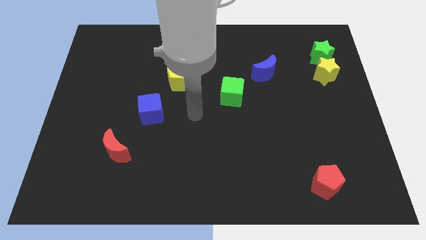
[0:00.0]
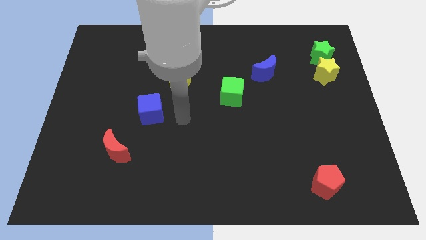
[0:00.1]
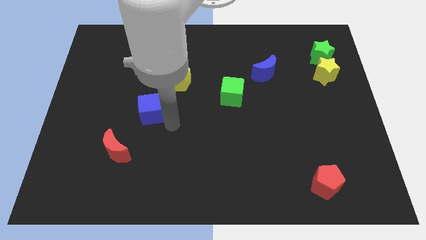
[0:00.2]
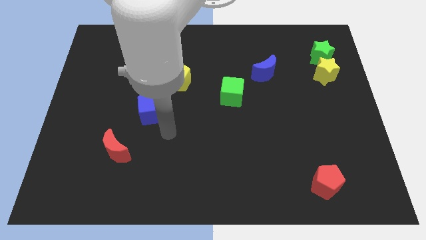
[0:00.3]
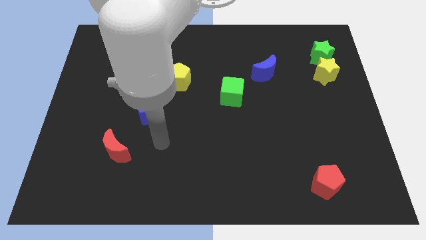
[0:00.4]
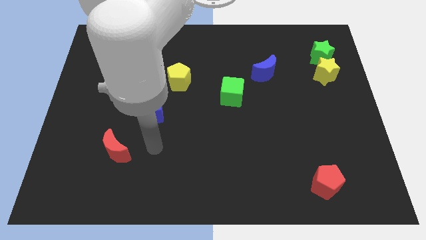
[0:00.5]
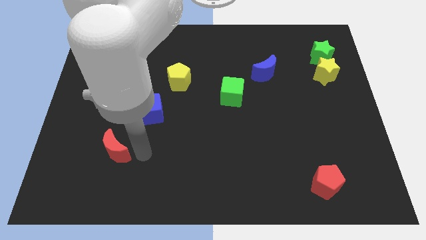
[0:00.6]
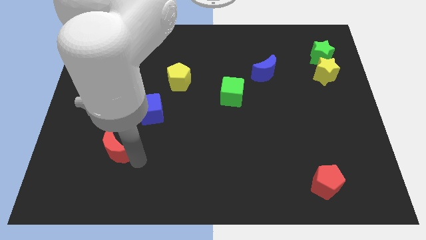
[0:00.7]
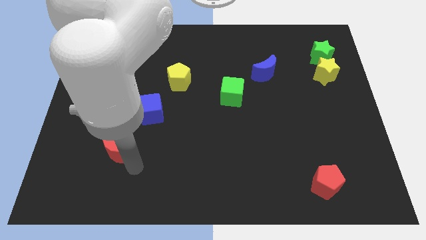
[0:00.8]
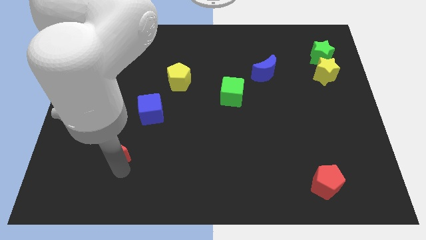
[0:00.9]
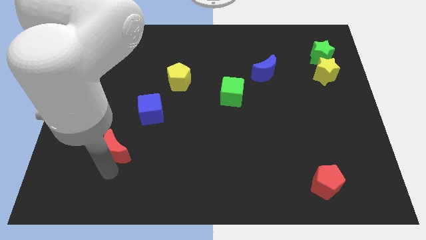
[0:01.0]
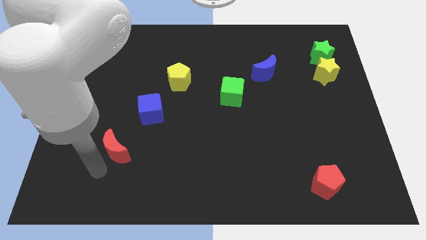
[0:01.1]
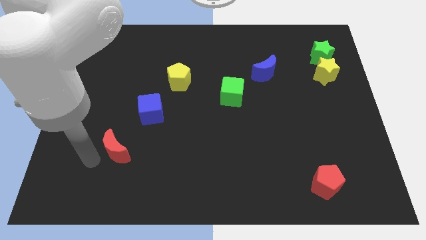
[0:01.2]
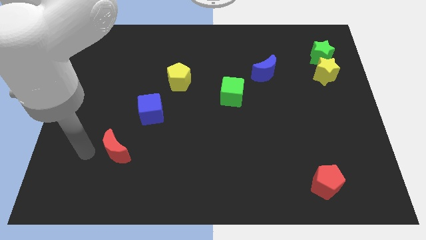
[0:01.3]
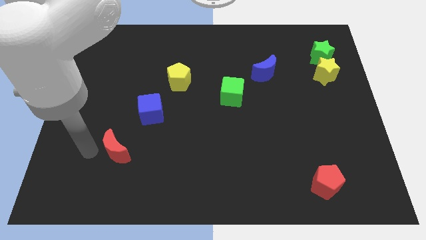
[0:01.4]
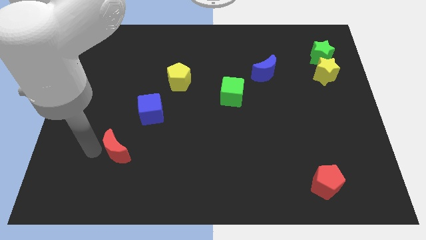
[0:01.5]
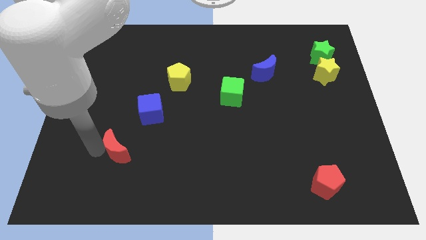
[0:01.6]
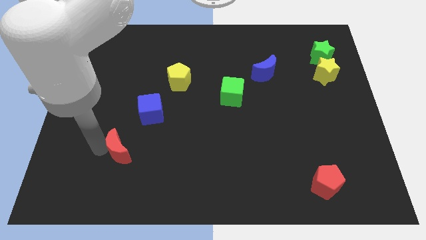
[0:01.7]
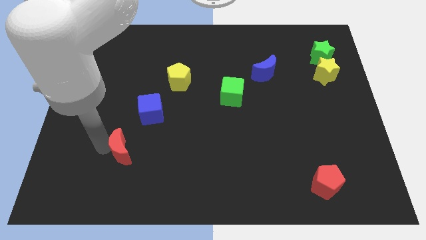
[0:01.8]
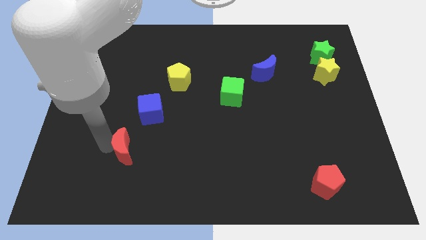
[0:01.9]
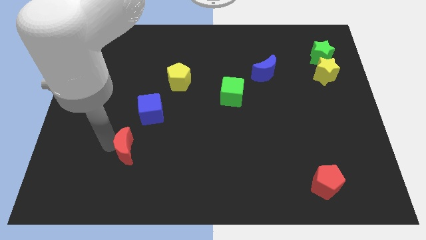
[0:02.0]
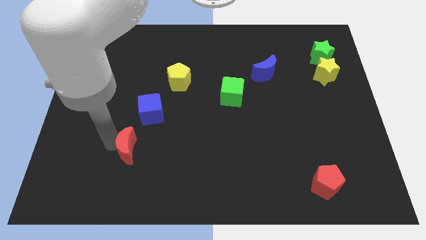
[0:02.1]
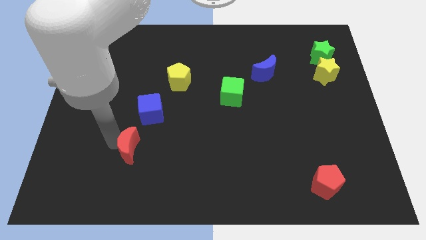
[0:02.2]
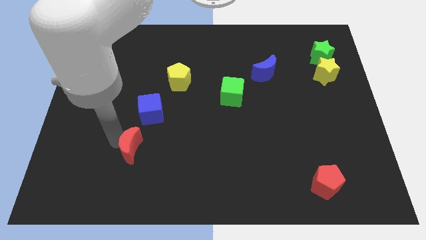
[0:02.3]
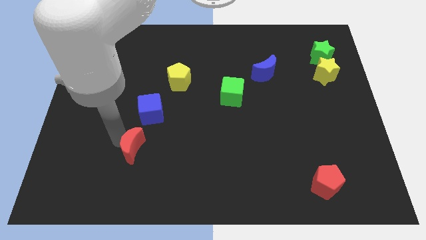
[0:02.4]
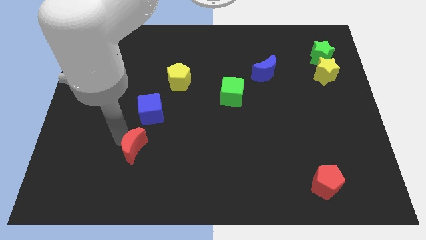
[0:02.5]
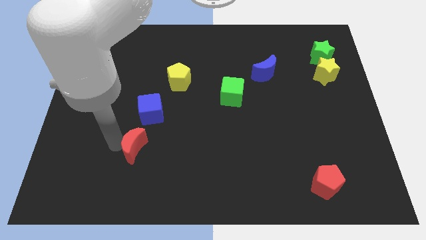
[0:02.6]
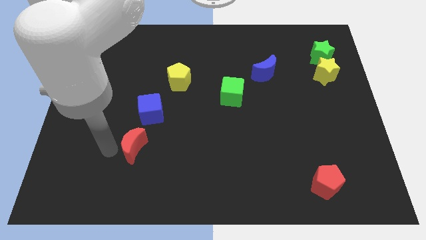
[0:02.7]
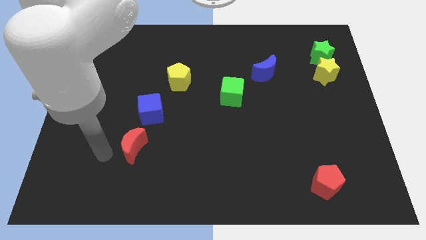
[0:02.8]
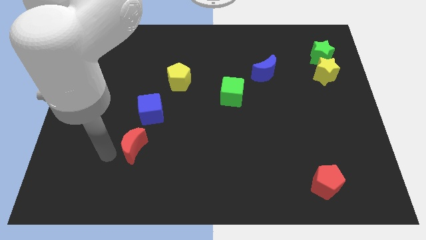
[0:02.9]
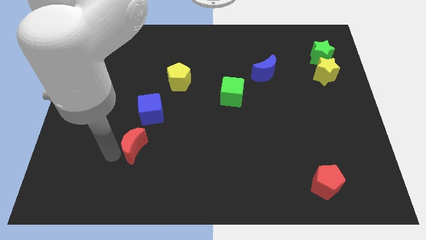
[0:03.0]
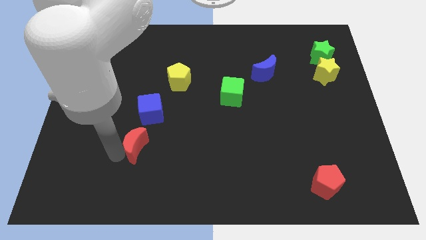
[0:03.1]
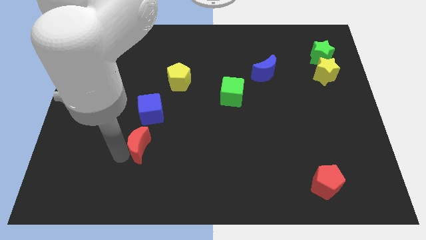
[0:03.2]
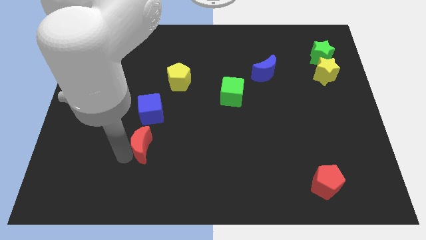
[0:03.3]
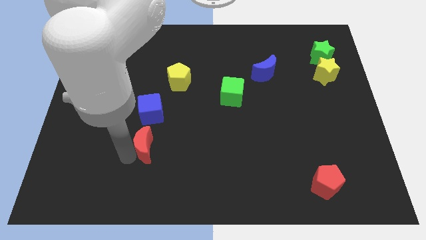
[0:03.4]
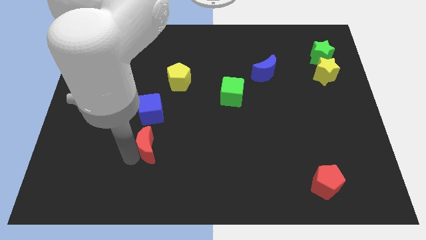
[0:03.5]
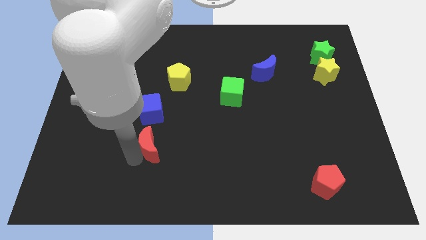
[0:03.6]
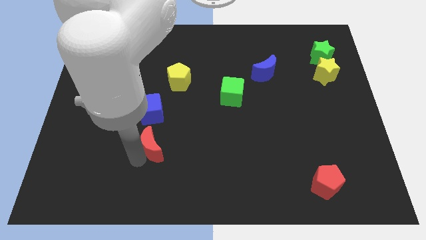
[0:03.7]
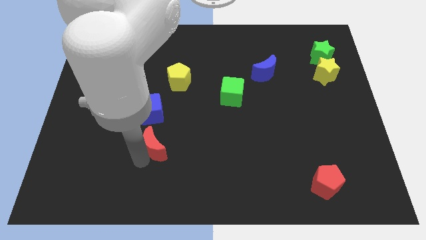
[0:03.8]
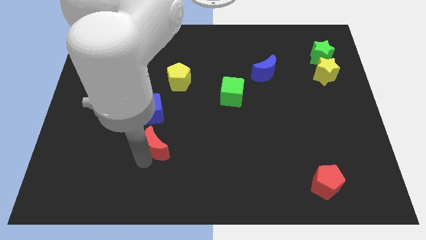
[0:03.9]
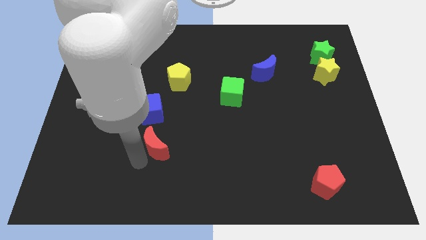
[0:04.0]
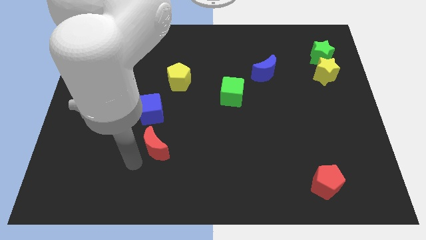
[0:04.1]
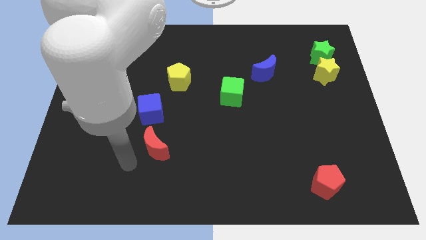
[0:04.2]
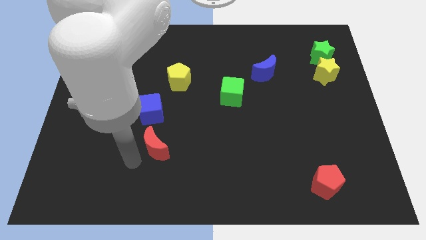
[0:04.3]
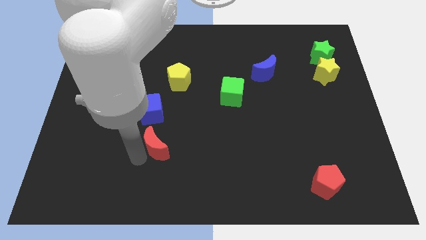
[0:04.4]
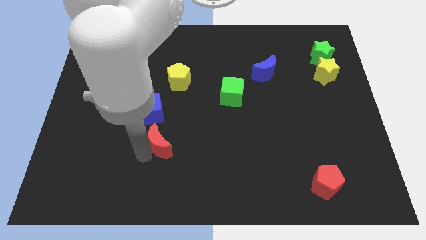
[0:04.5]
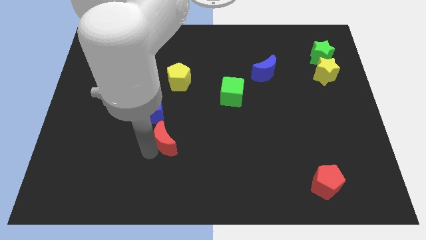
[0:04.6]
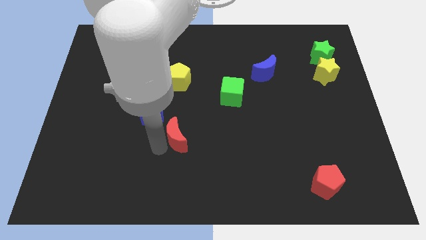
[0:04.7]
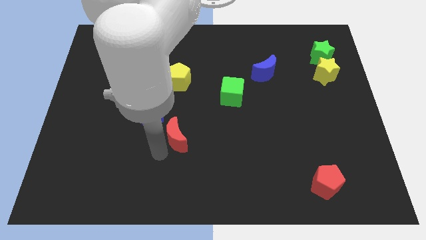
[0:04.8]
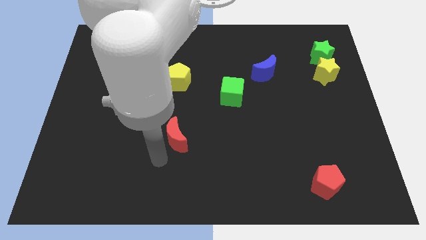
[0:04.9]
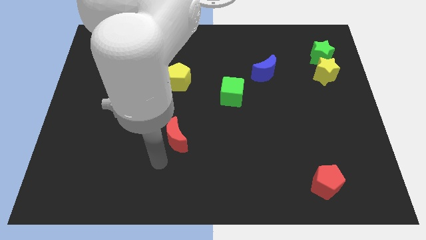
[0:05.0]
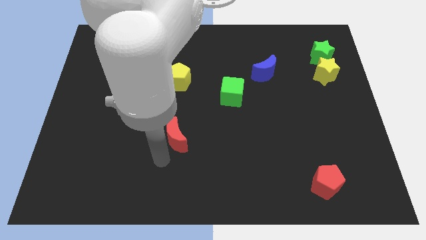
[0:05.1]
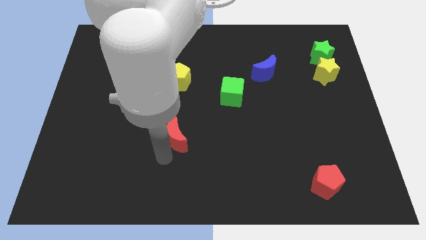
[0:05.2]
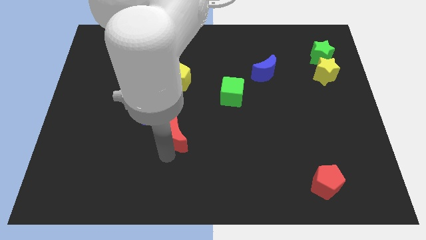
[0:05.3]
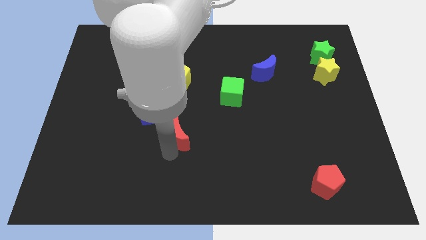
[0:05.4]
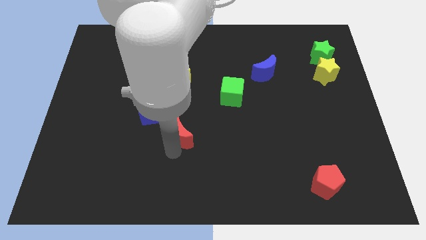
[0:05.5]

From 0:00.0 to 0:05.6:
put the red moon to the center

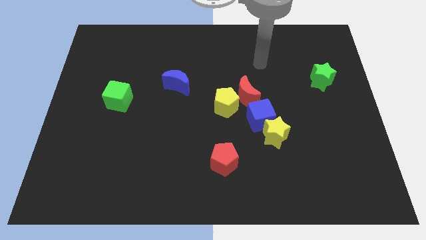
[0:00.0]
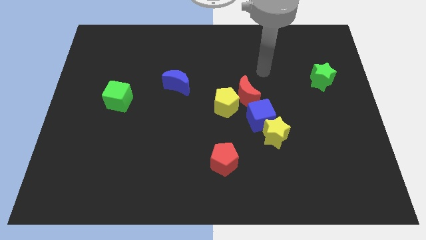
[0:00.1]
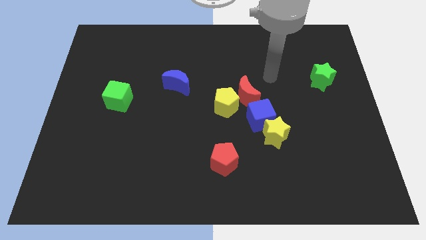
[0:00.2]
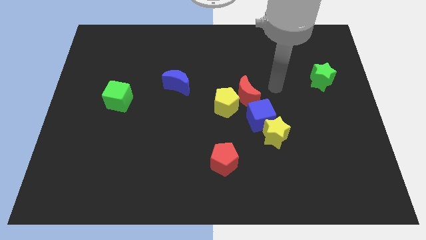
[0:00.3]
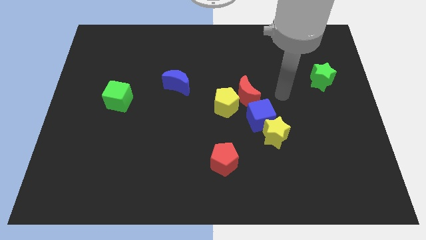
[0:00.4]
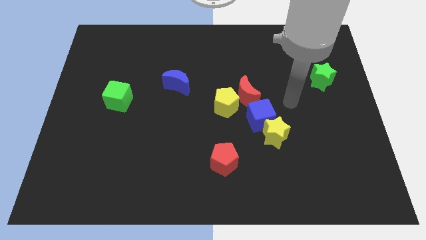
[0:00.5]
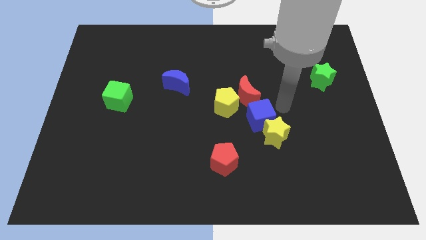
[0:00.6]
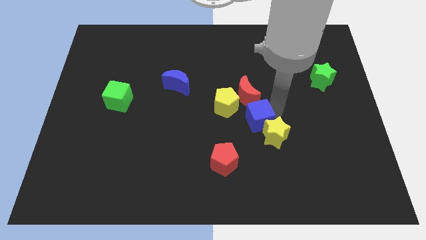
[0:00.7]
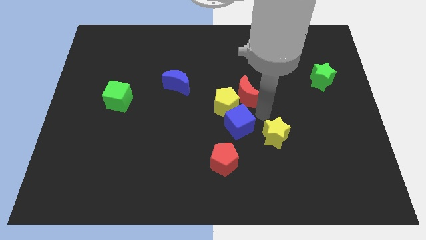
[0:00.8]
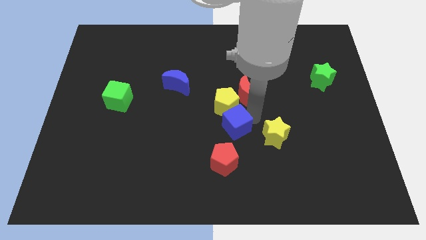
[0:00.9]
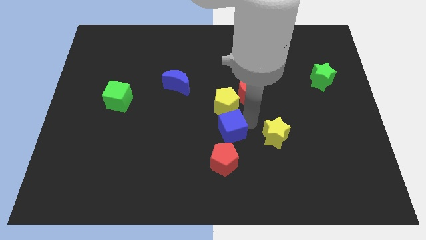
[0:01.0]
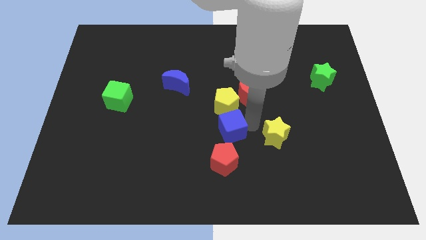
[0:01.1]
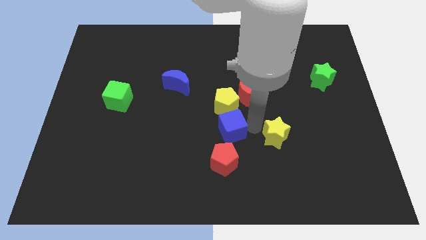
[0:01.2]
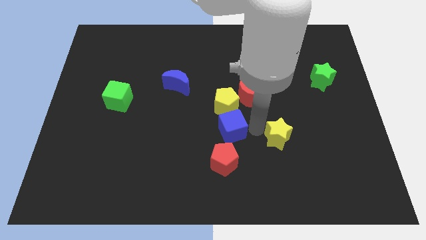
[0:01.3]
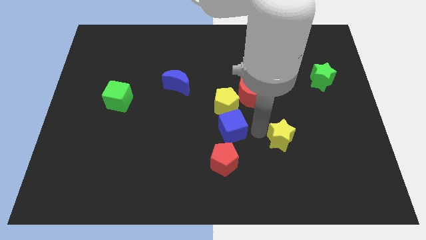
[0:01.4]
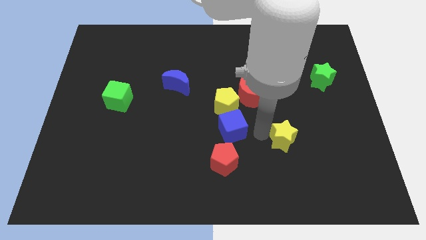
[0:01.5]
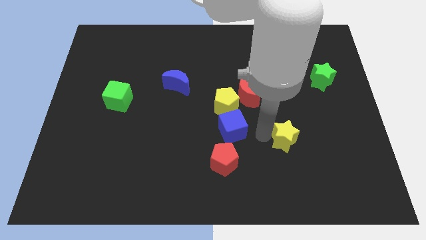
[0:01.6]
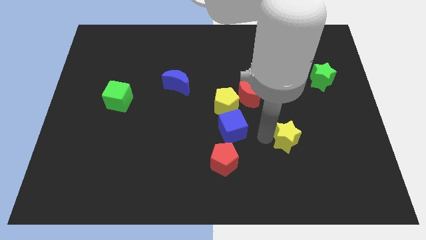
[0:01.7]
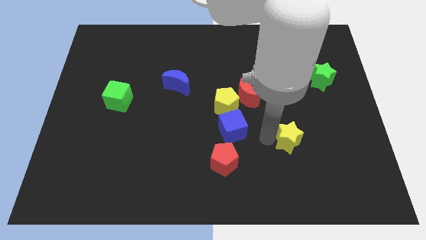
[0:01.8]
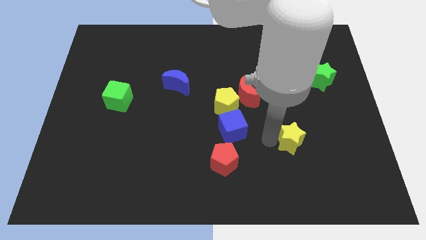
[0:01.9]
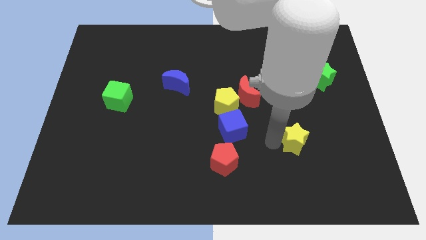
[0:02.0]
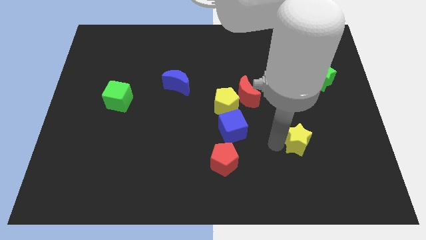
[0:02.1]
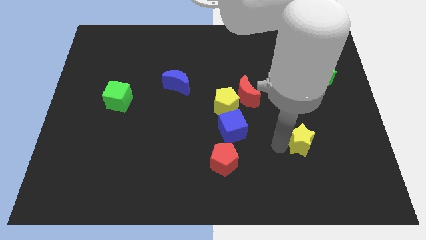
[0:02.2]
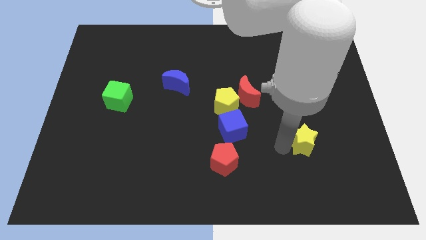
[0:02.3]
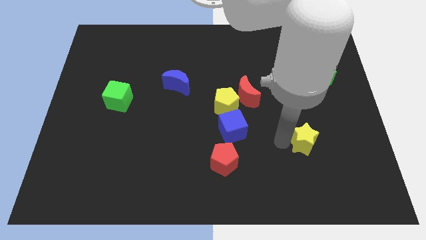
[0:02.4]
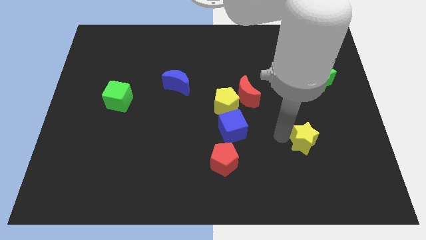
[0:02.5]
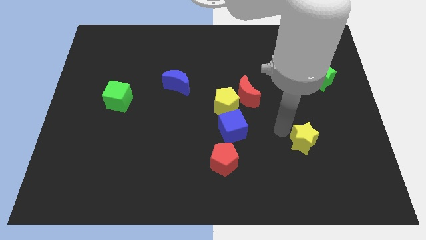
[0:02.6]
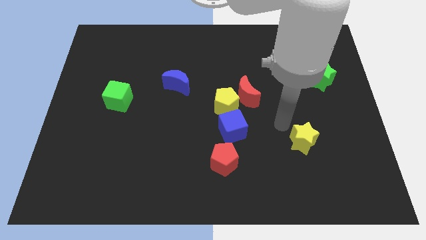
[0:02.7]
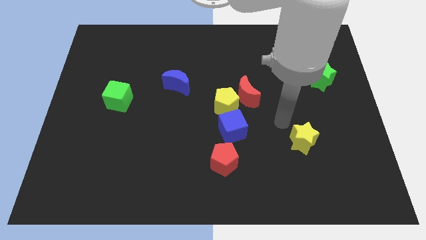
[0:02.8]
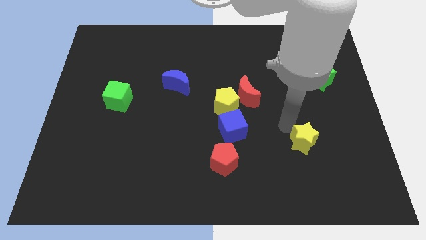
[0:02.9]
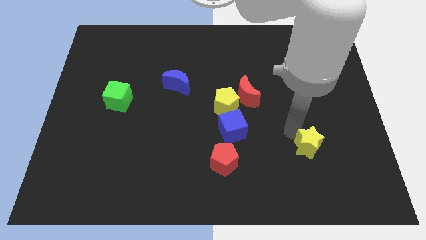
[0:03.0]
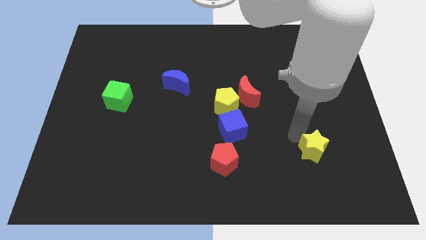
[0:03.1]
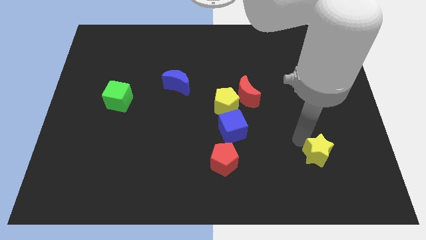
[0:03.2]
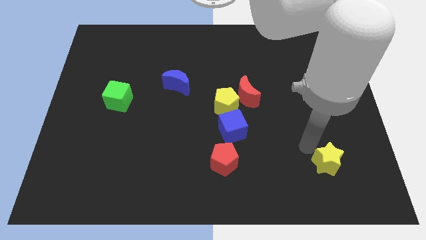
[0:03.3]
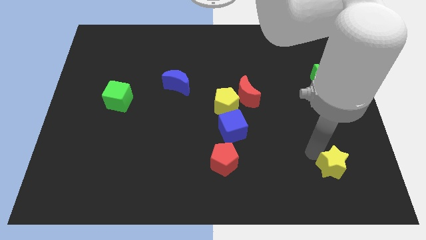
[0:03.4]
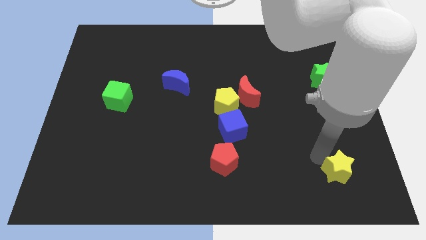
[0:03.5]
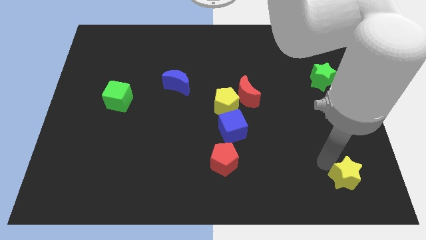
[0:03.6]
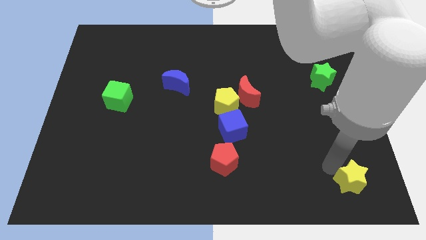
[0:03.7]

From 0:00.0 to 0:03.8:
push the yellow star to the bottom right
